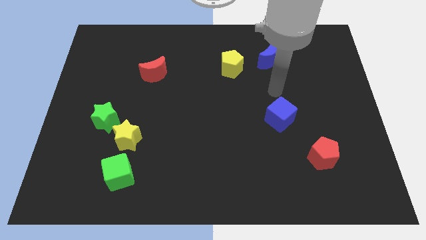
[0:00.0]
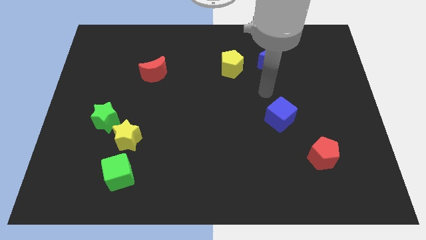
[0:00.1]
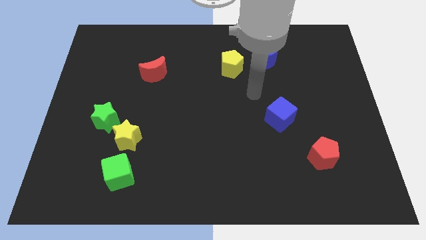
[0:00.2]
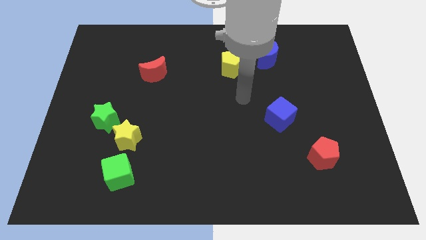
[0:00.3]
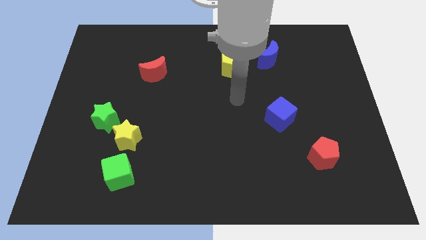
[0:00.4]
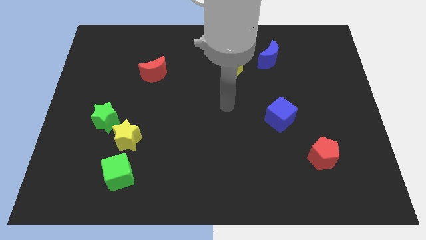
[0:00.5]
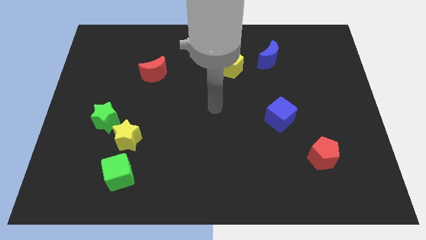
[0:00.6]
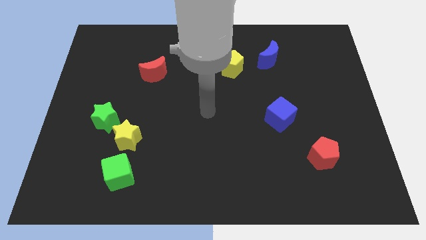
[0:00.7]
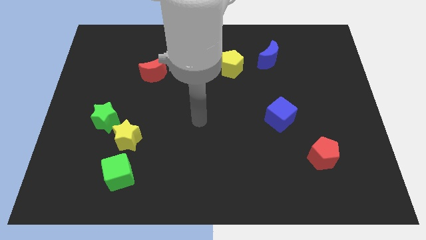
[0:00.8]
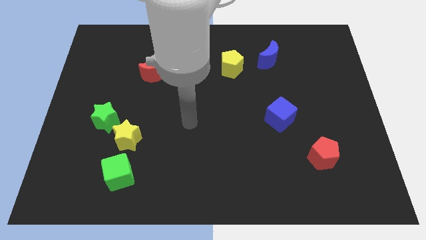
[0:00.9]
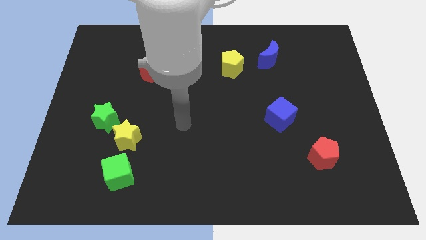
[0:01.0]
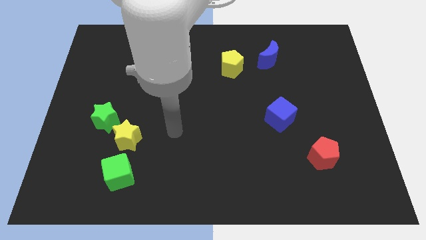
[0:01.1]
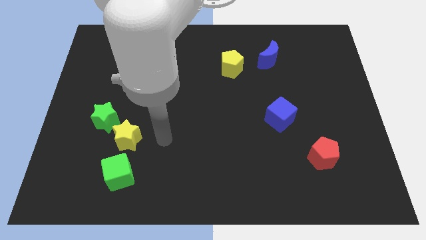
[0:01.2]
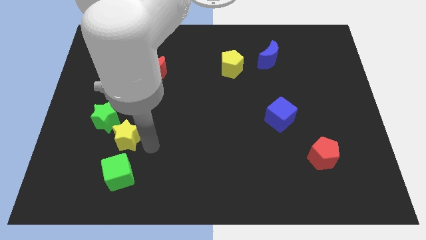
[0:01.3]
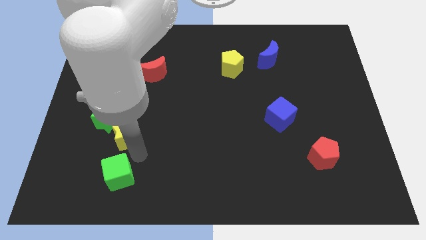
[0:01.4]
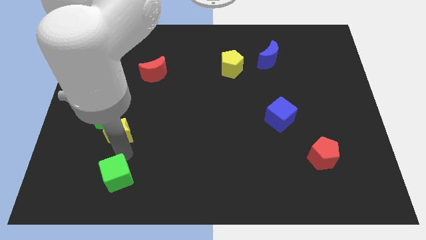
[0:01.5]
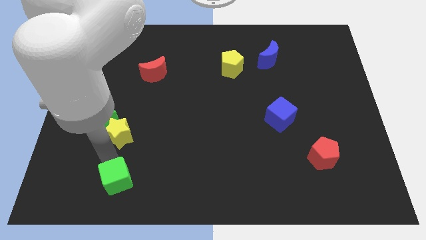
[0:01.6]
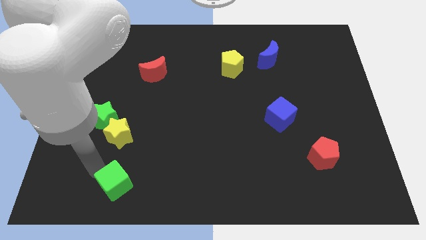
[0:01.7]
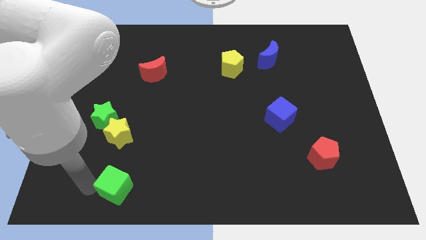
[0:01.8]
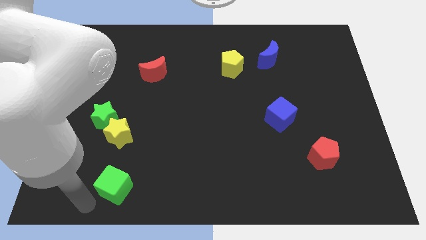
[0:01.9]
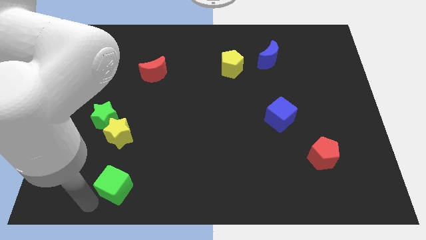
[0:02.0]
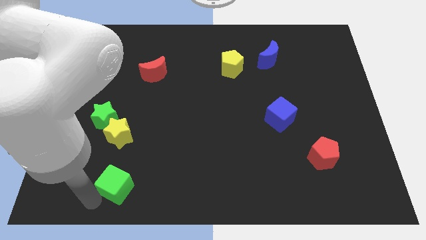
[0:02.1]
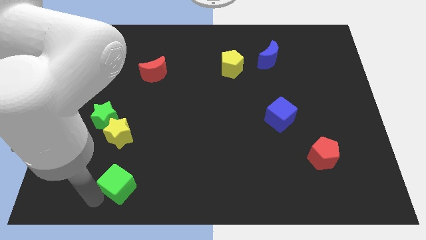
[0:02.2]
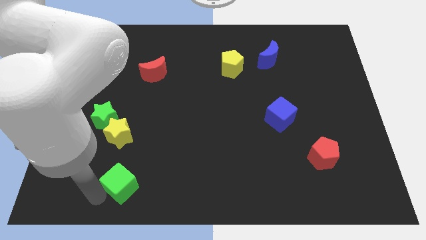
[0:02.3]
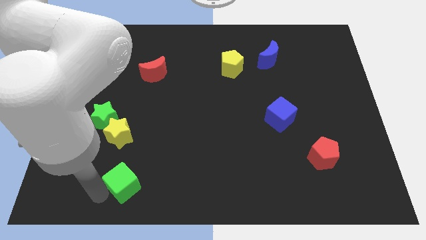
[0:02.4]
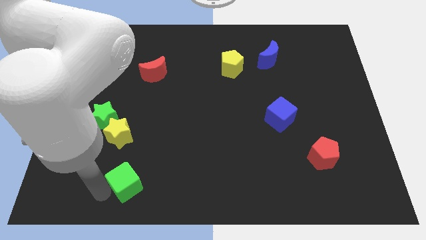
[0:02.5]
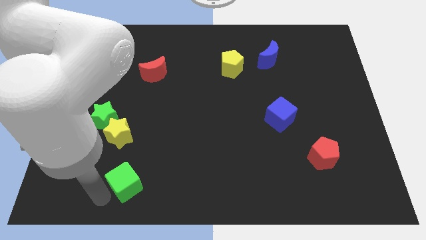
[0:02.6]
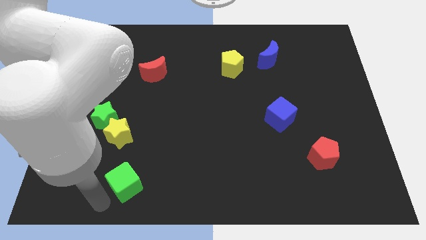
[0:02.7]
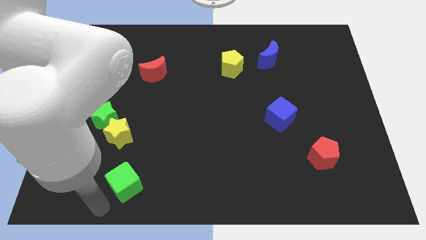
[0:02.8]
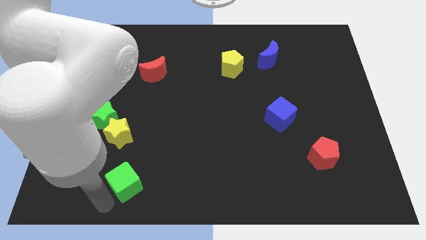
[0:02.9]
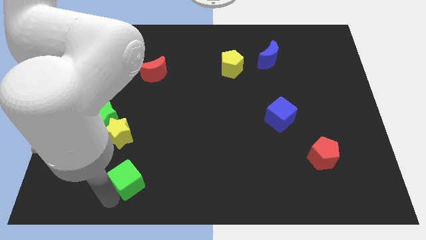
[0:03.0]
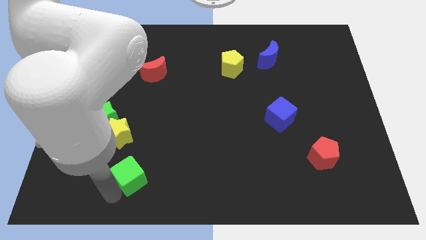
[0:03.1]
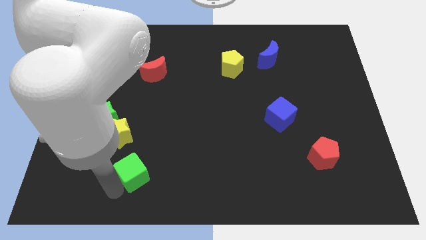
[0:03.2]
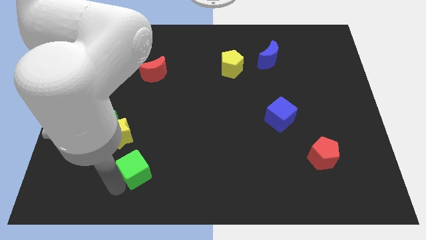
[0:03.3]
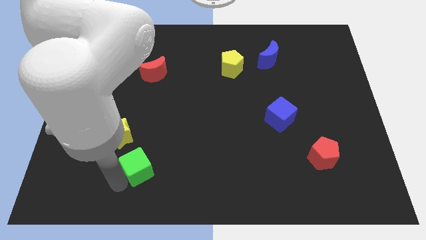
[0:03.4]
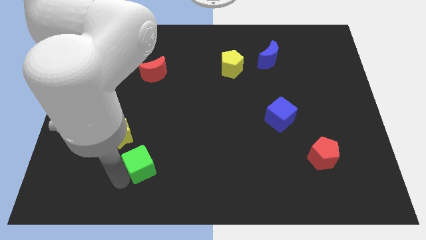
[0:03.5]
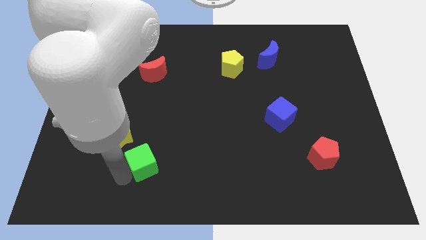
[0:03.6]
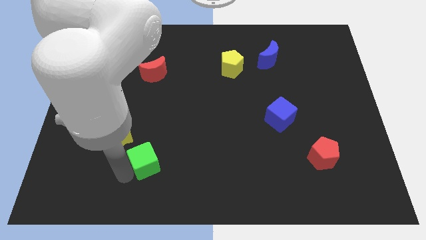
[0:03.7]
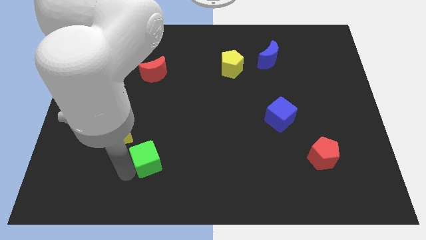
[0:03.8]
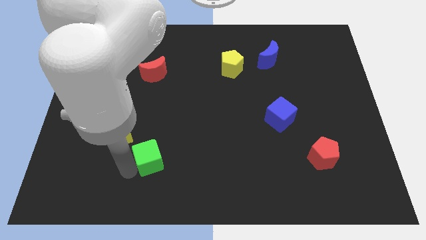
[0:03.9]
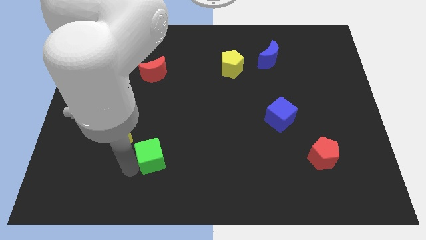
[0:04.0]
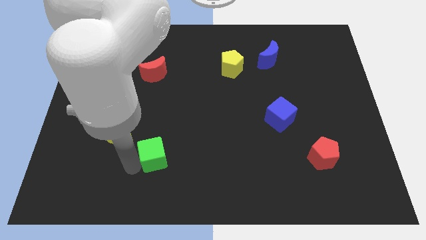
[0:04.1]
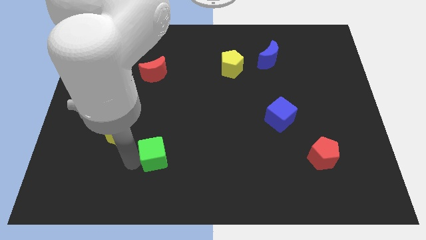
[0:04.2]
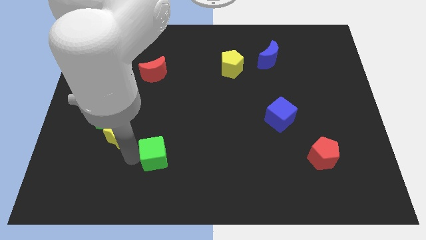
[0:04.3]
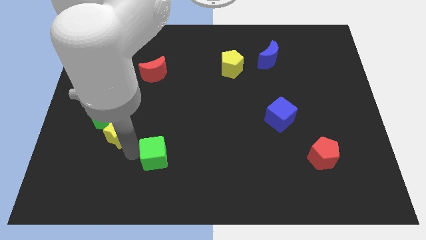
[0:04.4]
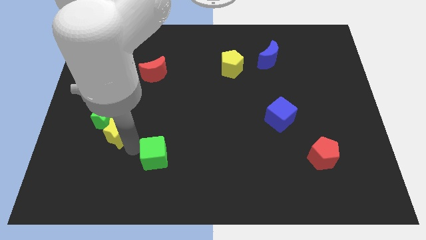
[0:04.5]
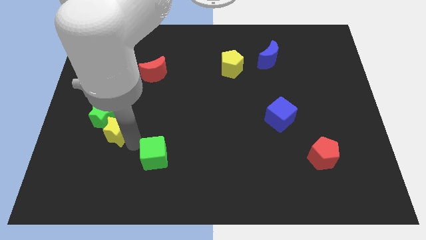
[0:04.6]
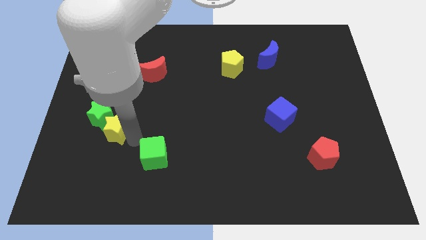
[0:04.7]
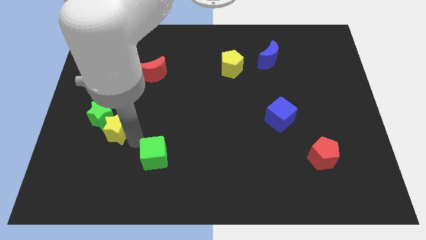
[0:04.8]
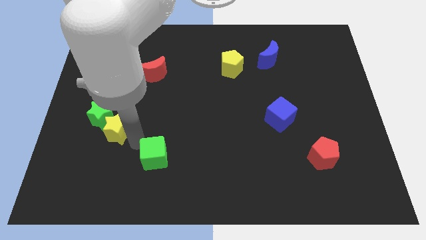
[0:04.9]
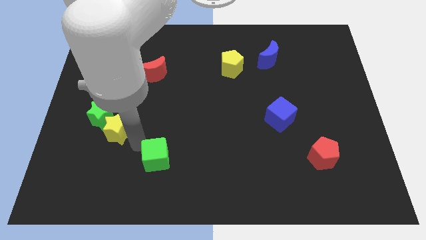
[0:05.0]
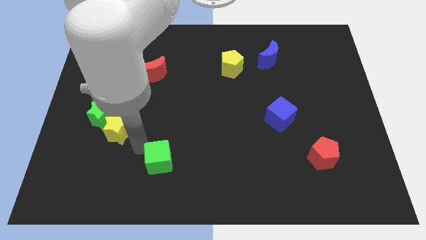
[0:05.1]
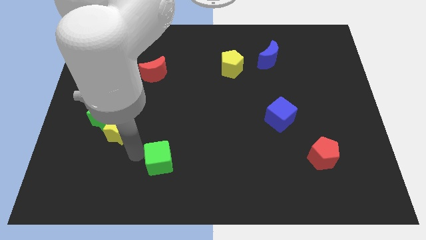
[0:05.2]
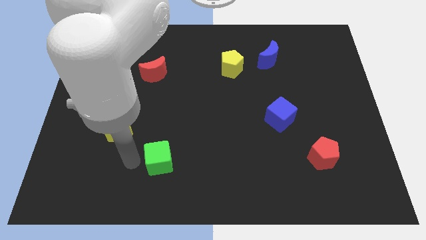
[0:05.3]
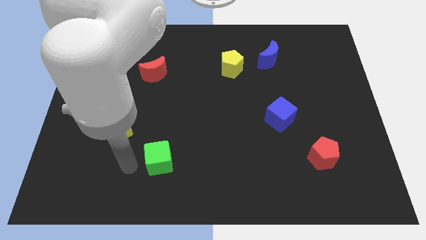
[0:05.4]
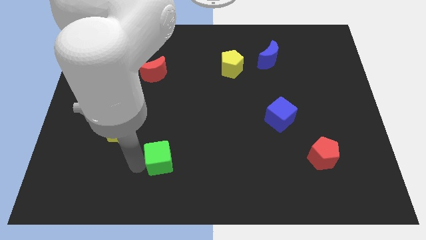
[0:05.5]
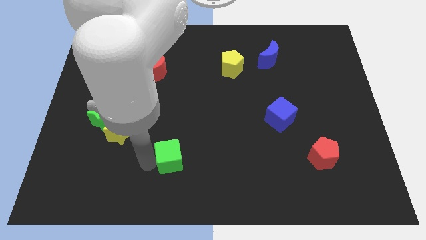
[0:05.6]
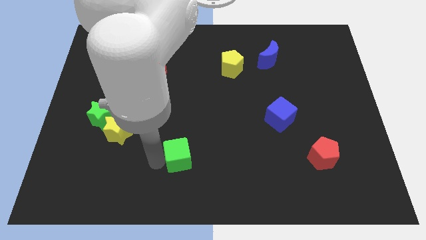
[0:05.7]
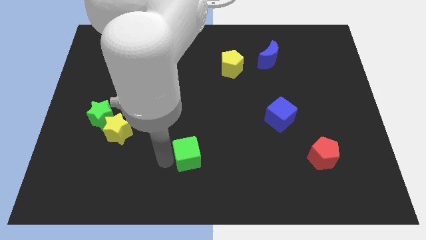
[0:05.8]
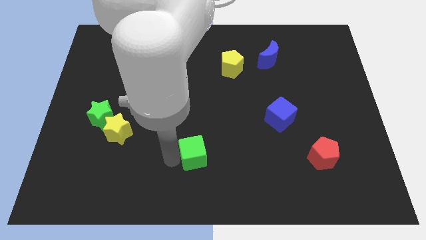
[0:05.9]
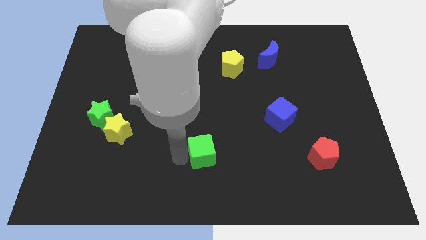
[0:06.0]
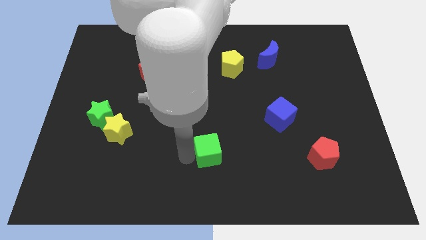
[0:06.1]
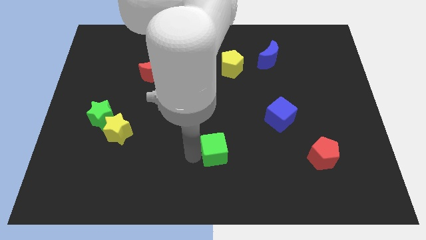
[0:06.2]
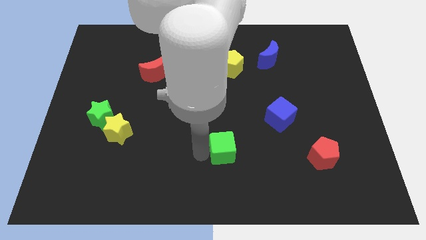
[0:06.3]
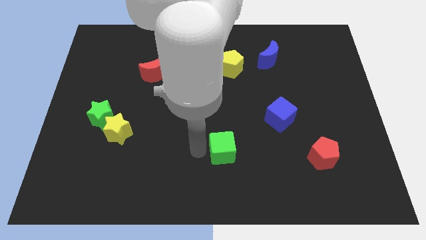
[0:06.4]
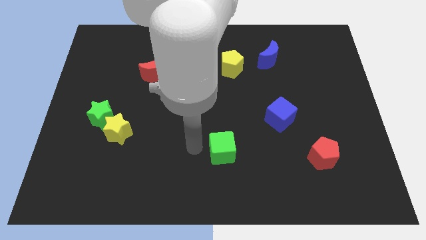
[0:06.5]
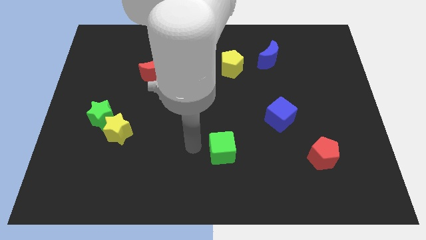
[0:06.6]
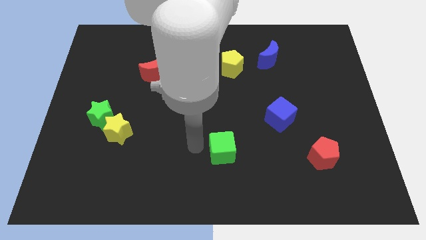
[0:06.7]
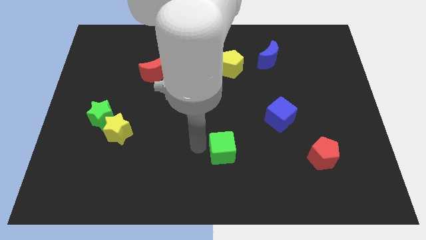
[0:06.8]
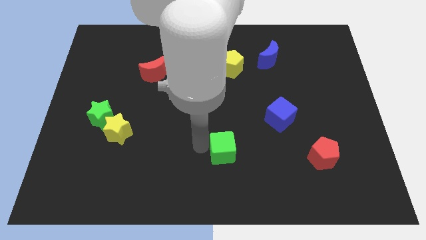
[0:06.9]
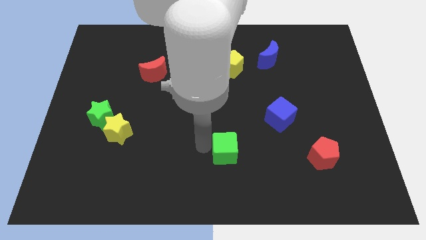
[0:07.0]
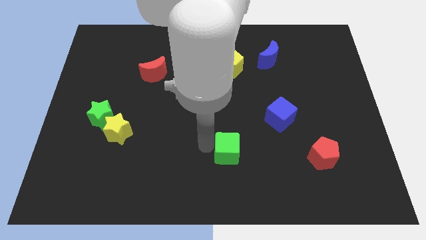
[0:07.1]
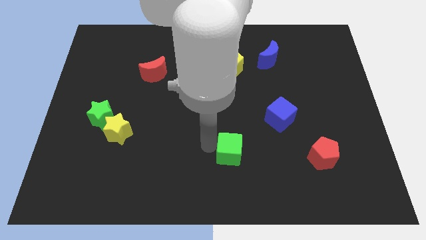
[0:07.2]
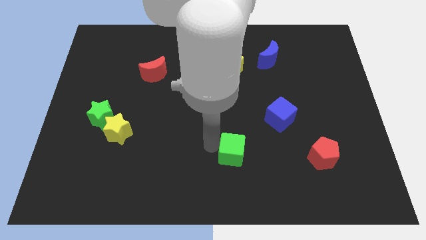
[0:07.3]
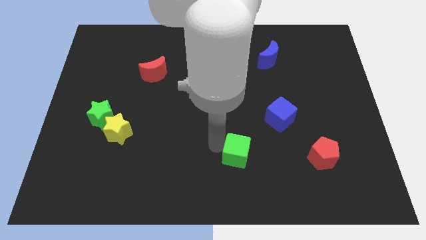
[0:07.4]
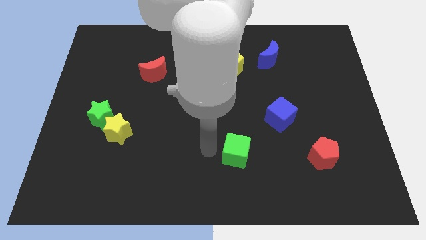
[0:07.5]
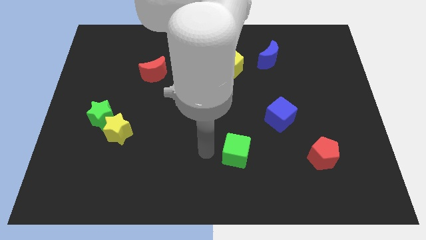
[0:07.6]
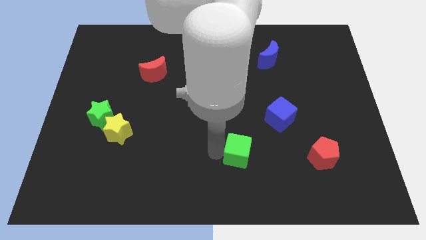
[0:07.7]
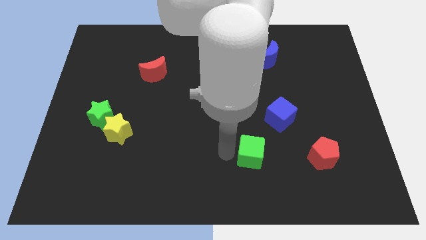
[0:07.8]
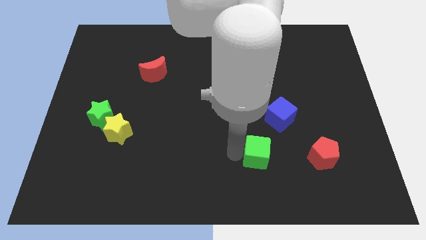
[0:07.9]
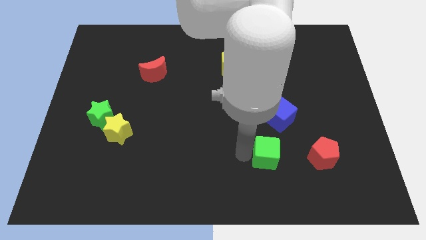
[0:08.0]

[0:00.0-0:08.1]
push the green cube below the blue cube
